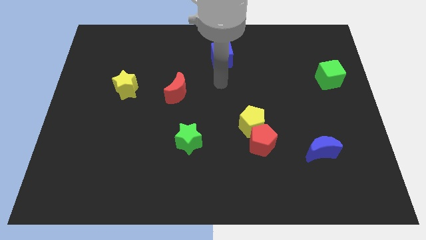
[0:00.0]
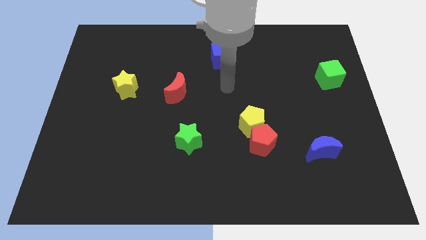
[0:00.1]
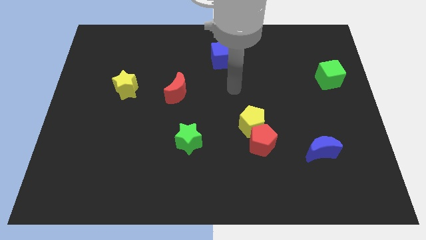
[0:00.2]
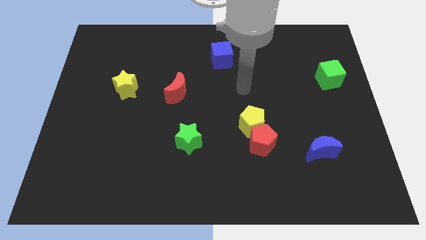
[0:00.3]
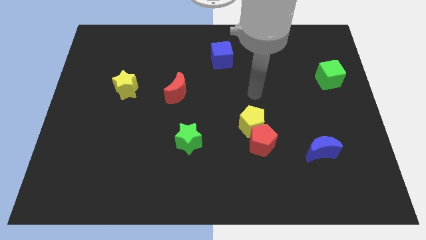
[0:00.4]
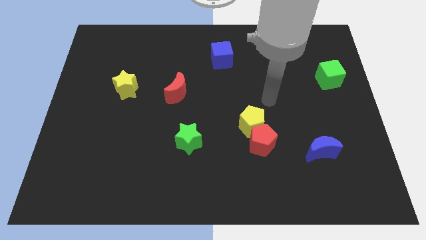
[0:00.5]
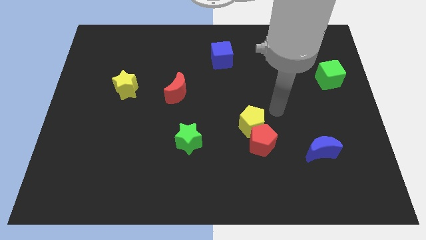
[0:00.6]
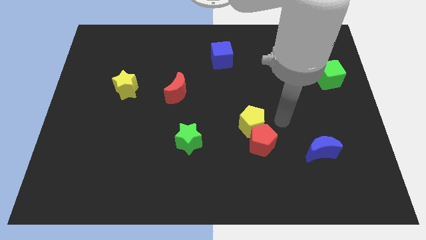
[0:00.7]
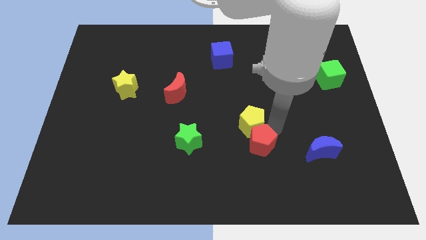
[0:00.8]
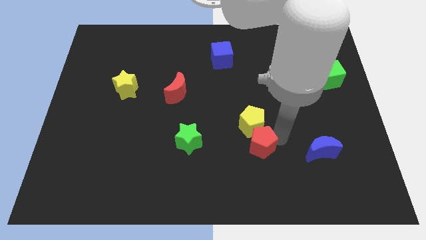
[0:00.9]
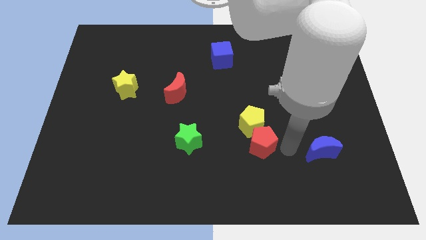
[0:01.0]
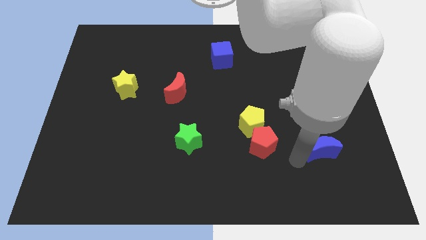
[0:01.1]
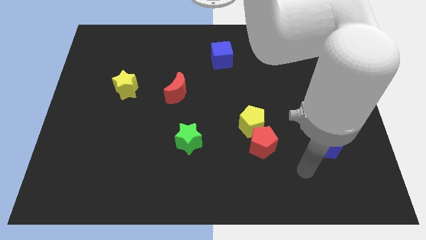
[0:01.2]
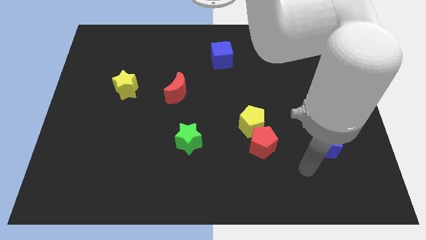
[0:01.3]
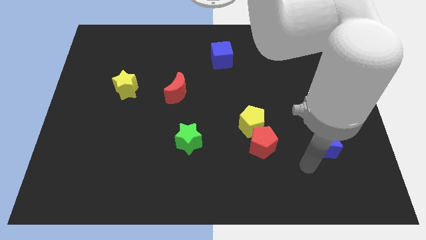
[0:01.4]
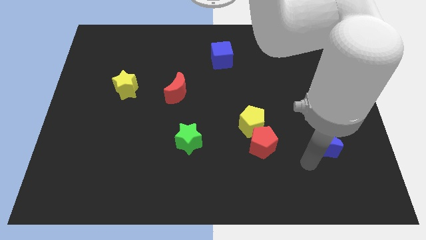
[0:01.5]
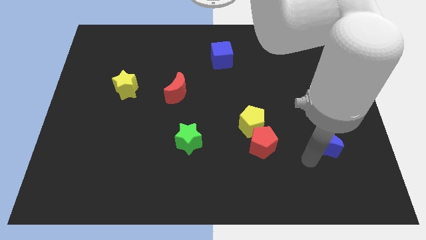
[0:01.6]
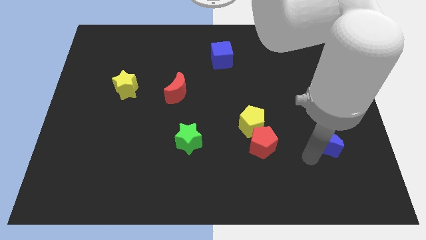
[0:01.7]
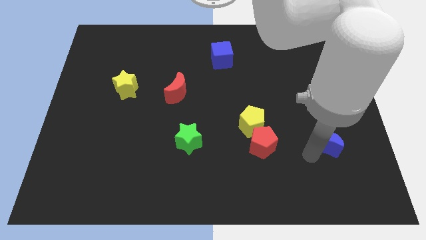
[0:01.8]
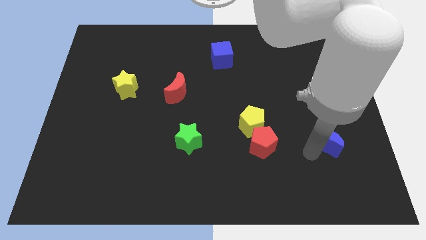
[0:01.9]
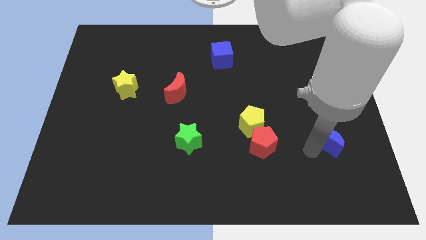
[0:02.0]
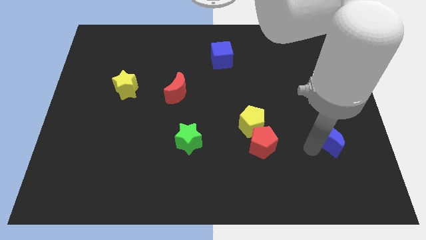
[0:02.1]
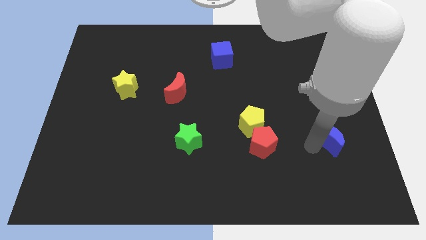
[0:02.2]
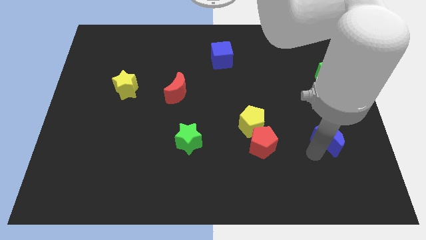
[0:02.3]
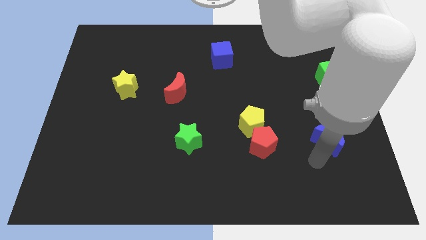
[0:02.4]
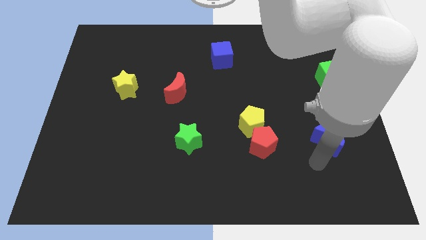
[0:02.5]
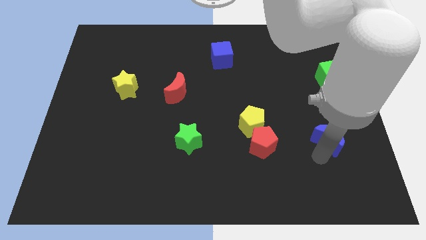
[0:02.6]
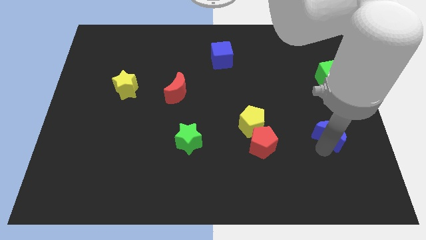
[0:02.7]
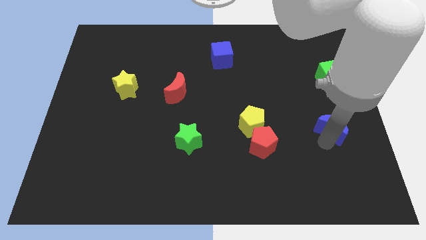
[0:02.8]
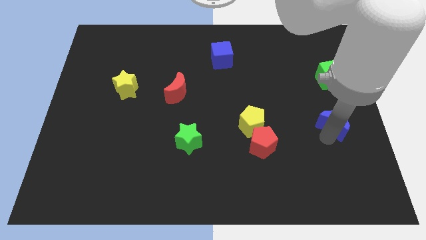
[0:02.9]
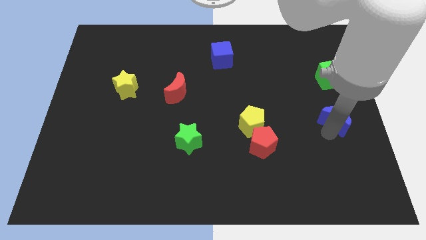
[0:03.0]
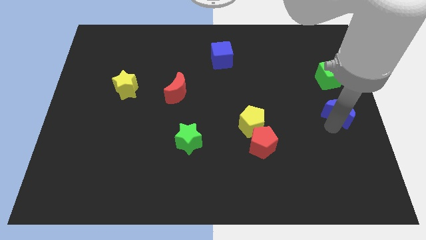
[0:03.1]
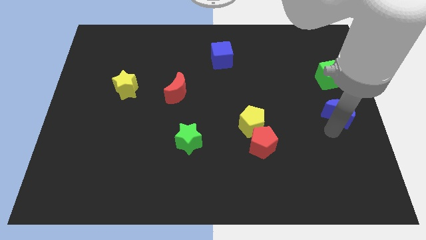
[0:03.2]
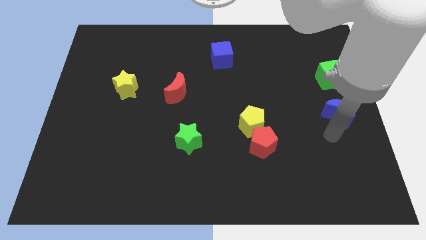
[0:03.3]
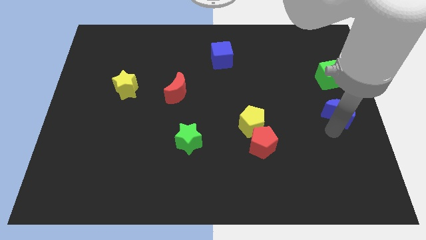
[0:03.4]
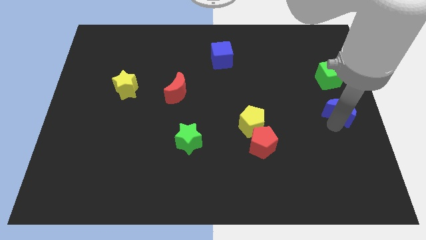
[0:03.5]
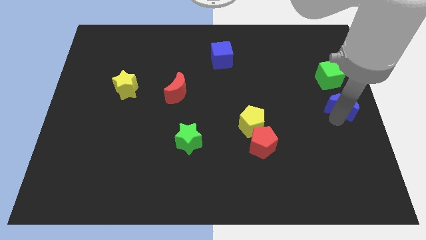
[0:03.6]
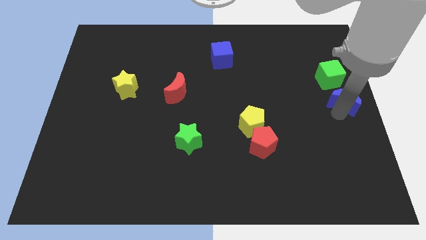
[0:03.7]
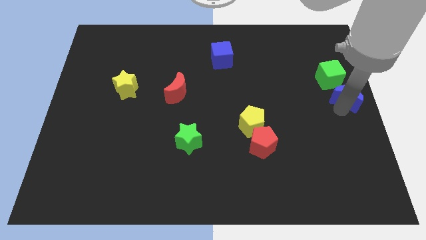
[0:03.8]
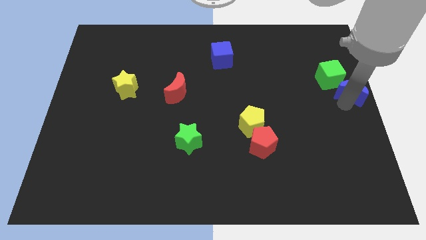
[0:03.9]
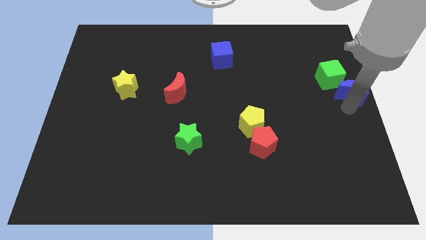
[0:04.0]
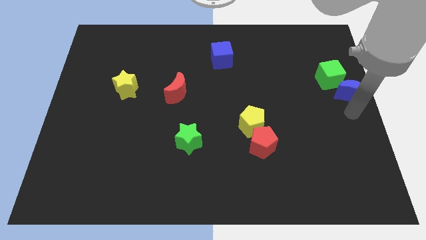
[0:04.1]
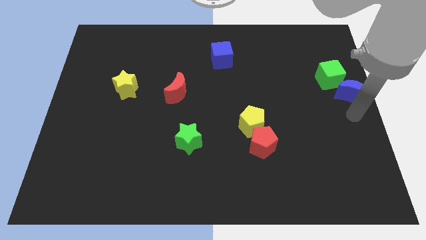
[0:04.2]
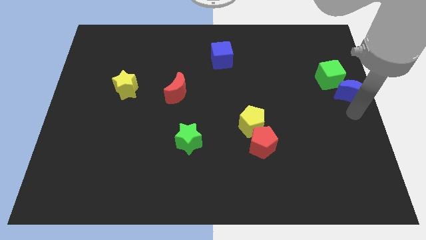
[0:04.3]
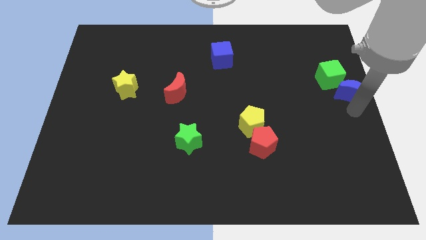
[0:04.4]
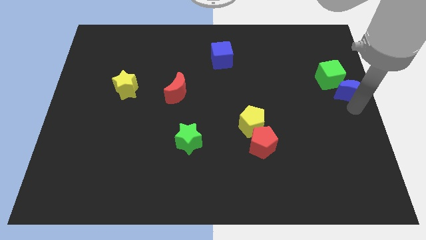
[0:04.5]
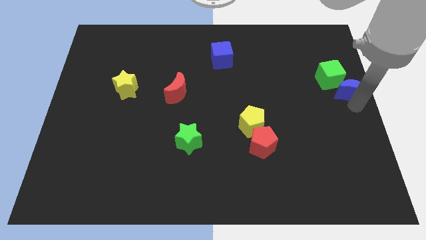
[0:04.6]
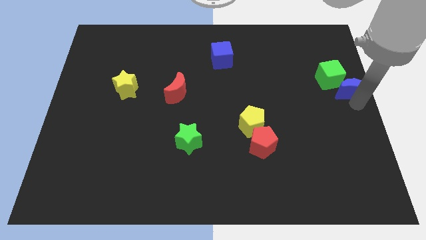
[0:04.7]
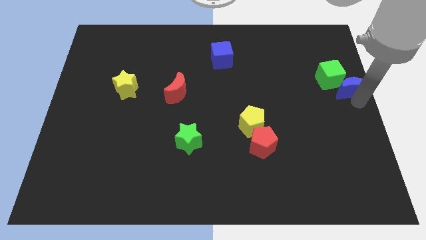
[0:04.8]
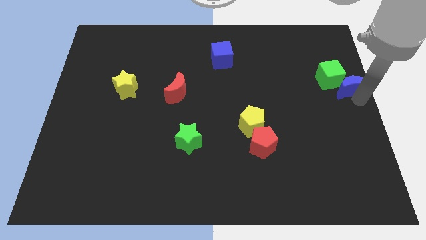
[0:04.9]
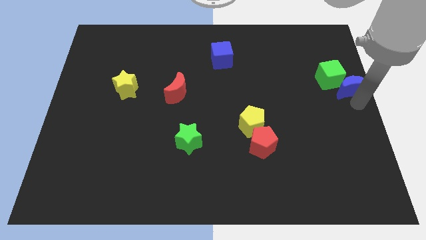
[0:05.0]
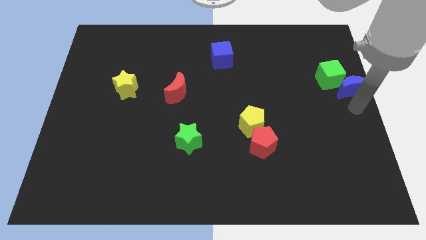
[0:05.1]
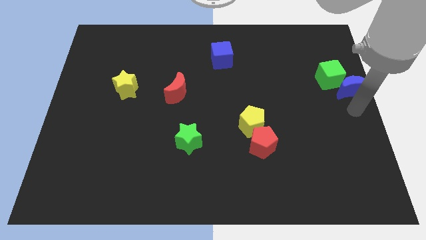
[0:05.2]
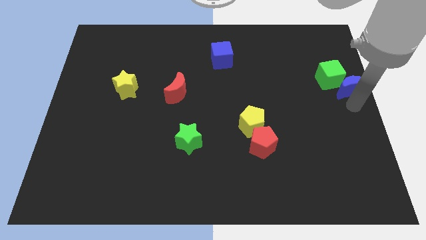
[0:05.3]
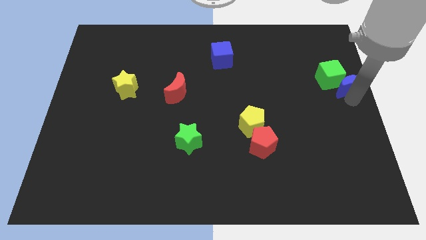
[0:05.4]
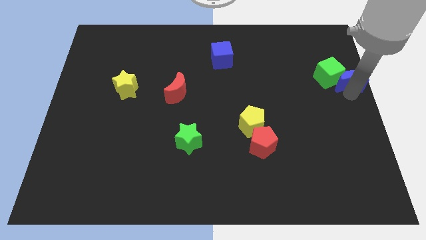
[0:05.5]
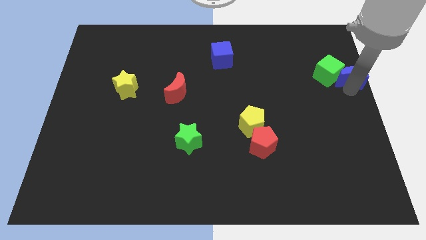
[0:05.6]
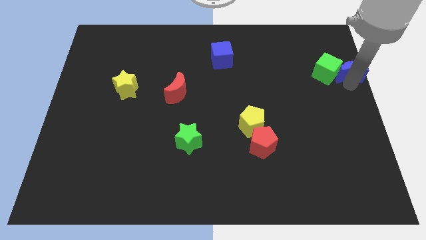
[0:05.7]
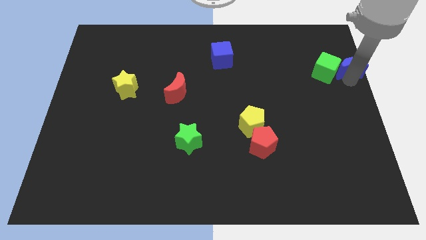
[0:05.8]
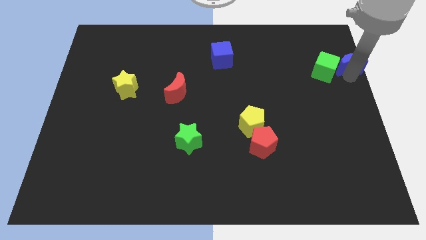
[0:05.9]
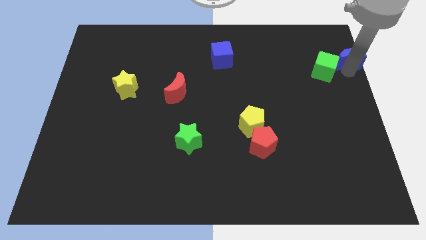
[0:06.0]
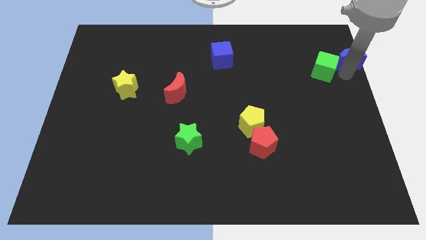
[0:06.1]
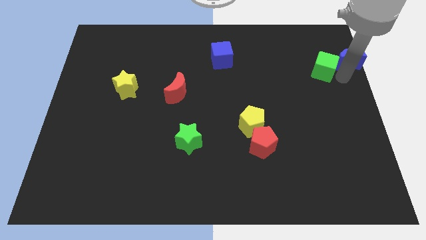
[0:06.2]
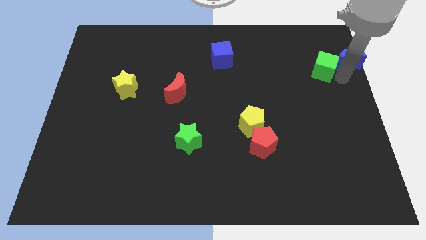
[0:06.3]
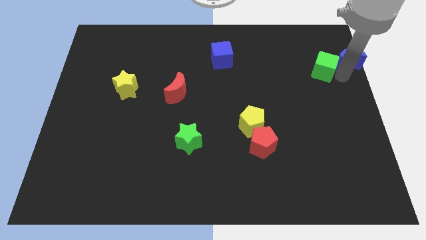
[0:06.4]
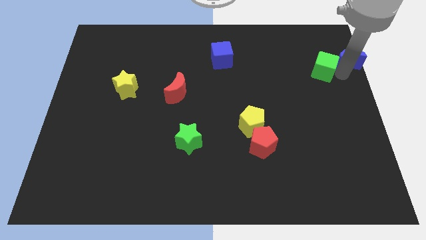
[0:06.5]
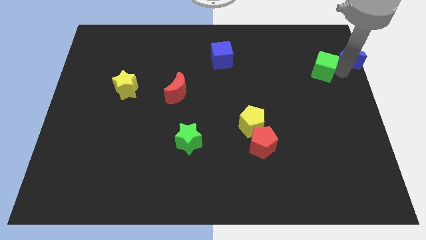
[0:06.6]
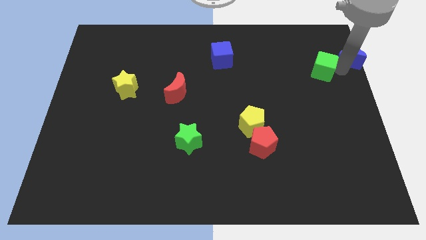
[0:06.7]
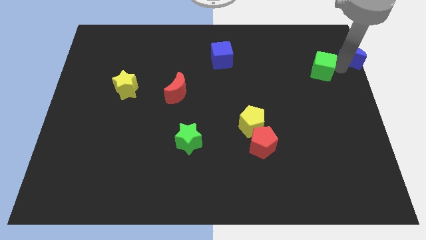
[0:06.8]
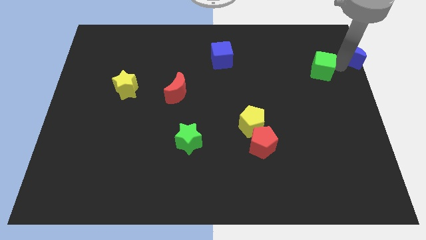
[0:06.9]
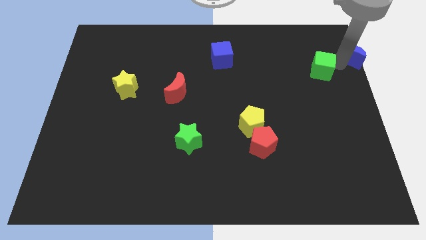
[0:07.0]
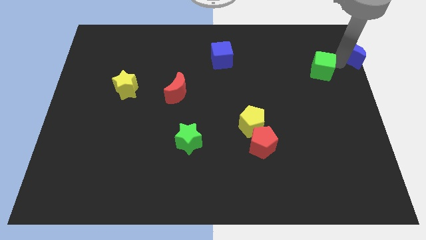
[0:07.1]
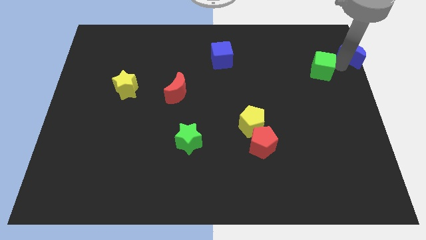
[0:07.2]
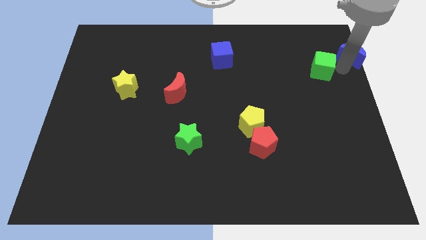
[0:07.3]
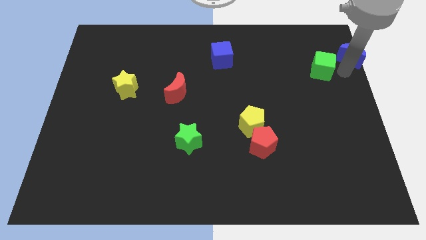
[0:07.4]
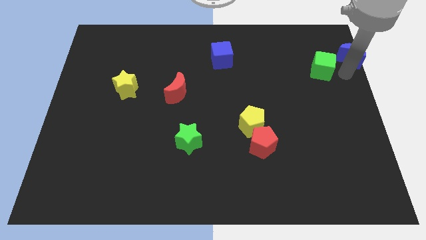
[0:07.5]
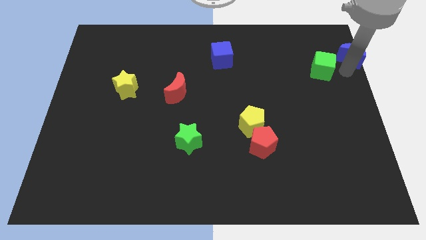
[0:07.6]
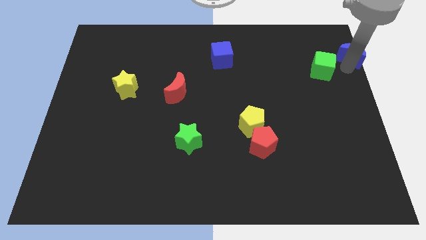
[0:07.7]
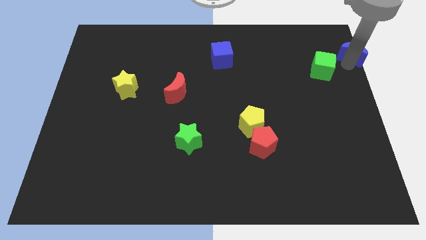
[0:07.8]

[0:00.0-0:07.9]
put the blue moon to the top right of the board
